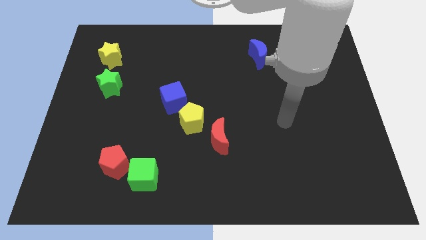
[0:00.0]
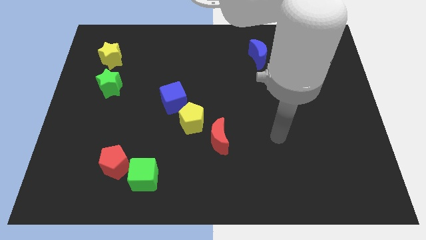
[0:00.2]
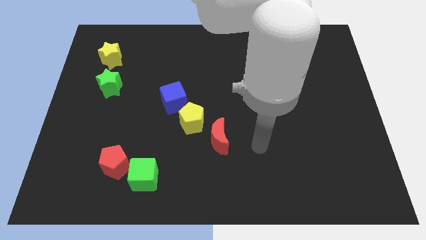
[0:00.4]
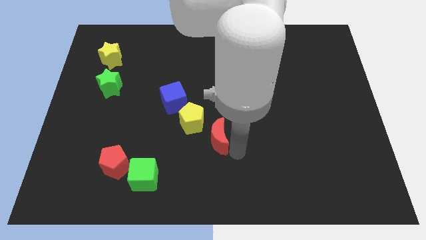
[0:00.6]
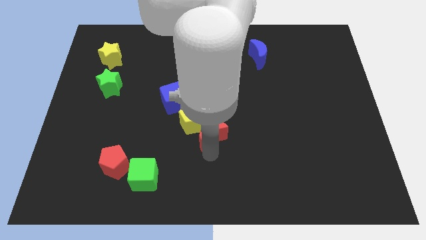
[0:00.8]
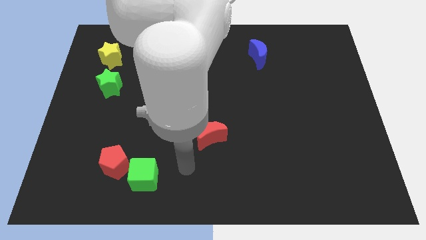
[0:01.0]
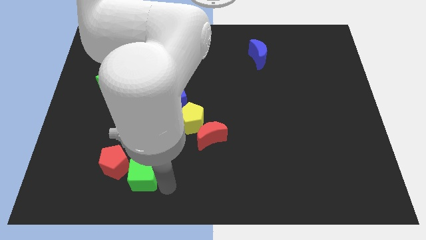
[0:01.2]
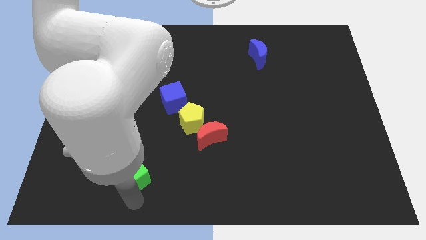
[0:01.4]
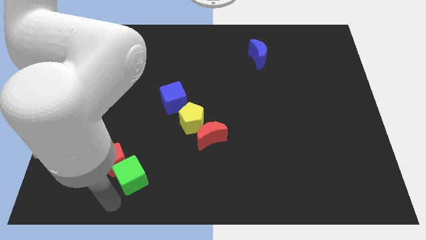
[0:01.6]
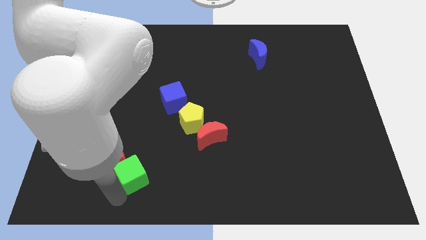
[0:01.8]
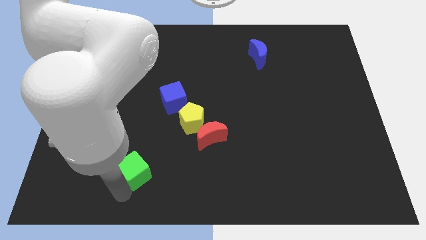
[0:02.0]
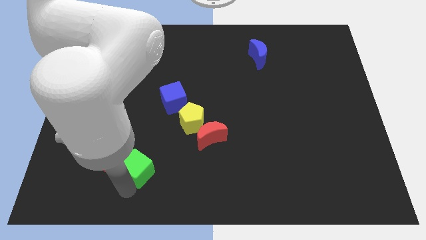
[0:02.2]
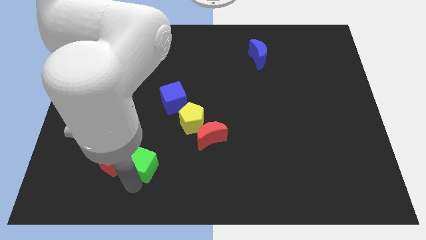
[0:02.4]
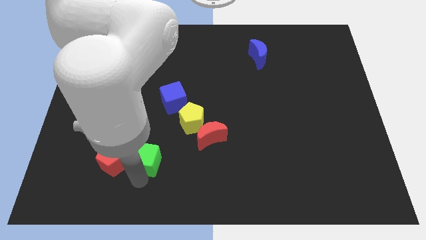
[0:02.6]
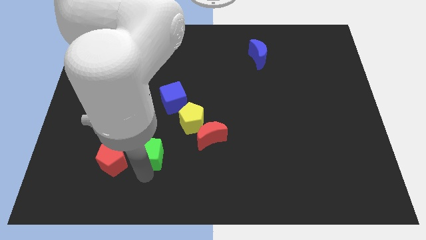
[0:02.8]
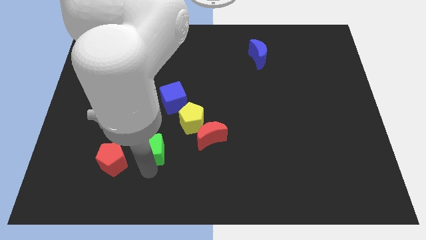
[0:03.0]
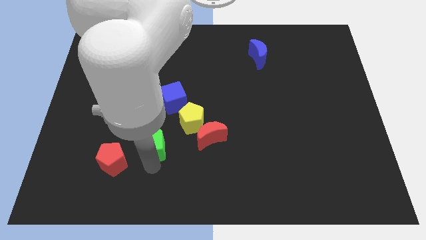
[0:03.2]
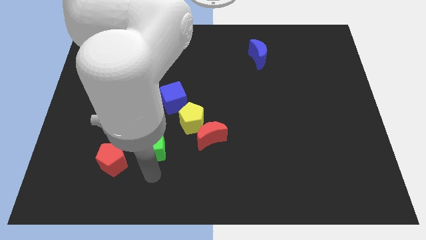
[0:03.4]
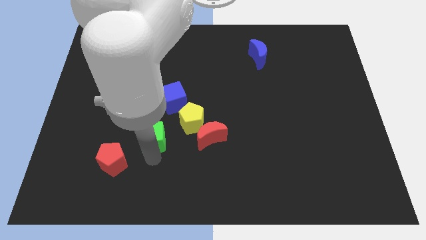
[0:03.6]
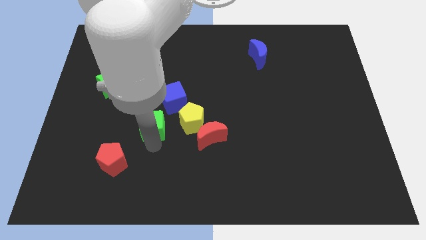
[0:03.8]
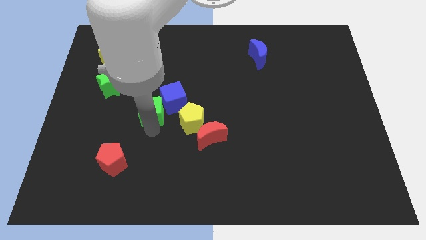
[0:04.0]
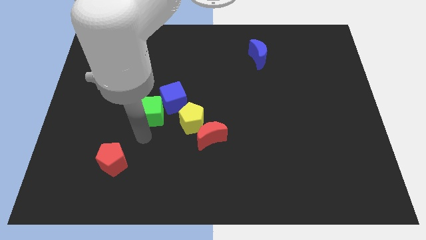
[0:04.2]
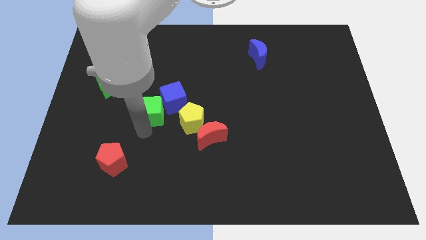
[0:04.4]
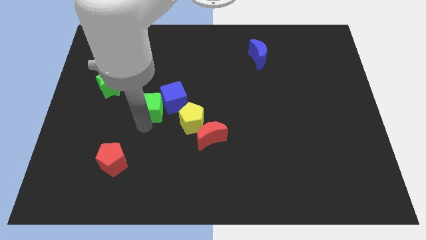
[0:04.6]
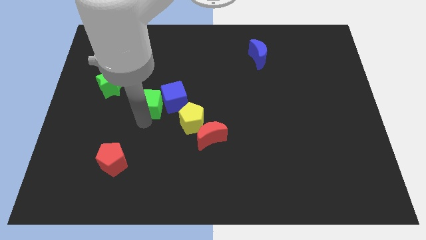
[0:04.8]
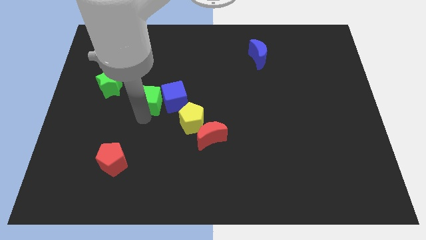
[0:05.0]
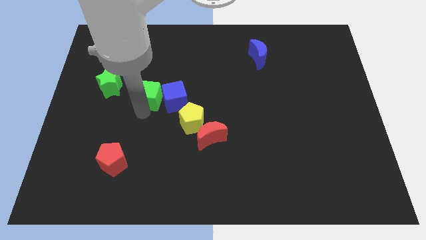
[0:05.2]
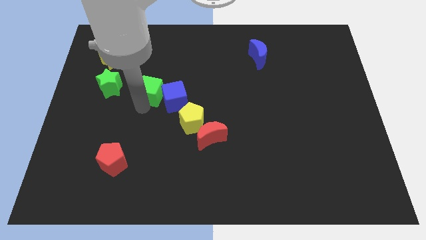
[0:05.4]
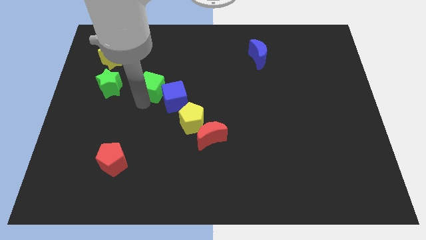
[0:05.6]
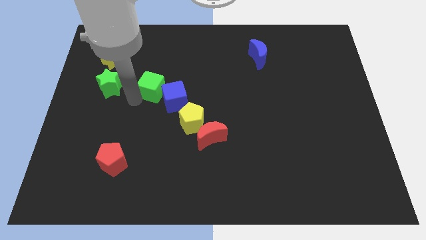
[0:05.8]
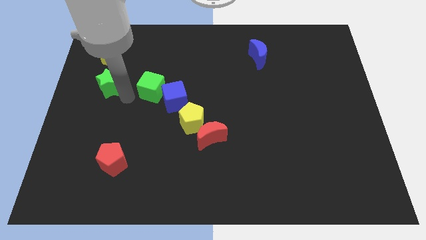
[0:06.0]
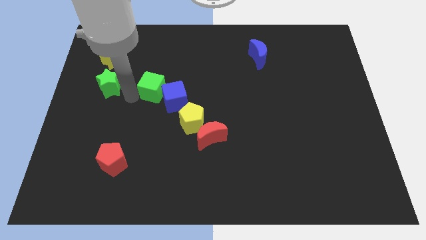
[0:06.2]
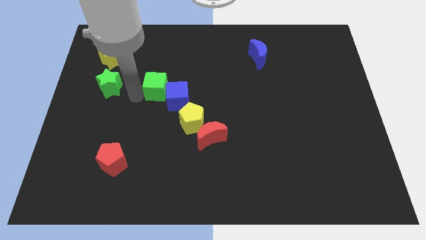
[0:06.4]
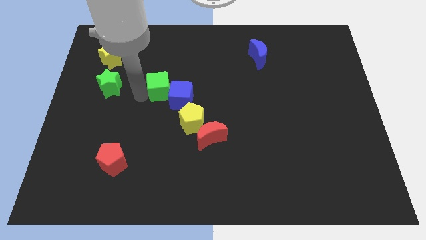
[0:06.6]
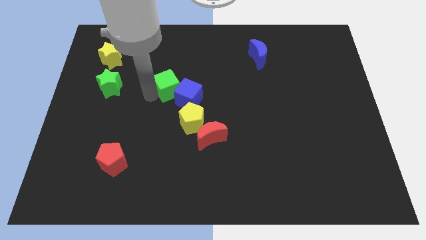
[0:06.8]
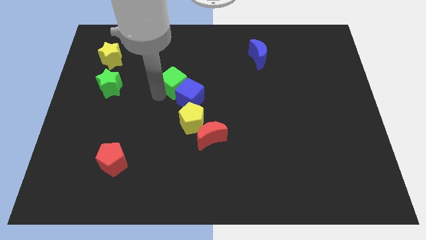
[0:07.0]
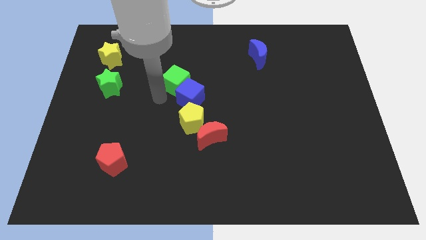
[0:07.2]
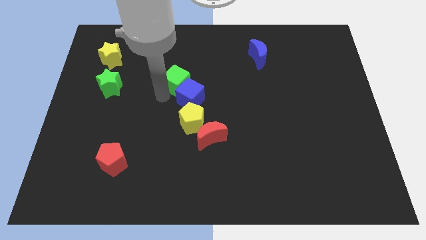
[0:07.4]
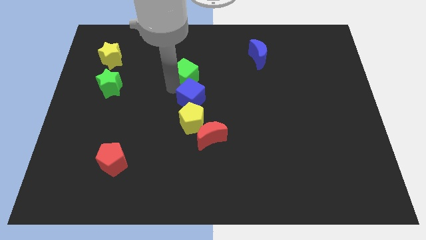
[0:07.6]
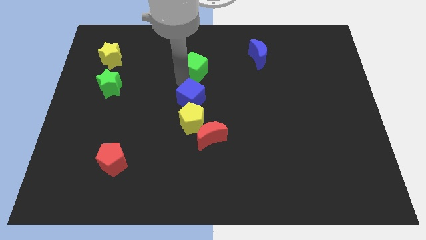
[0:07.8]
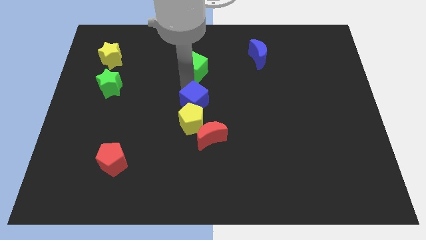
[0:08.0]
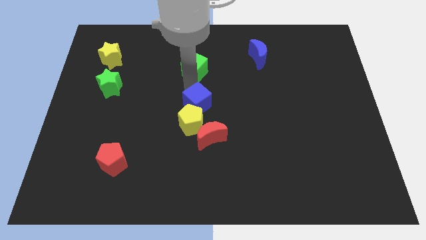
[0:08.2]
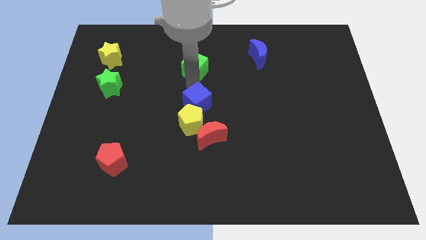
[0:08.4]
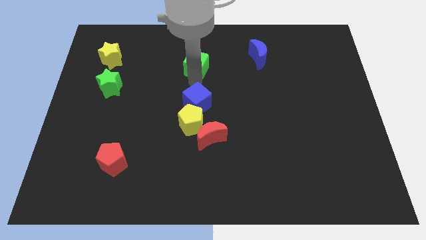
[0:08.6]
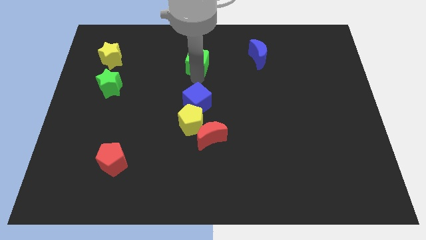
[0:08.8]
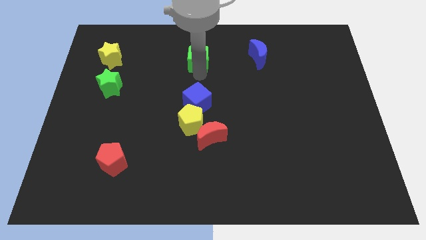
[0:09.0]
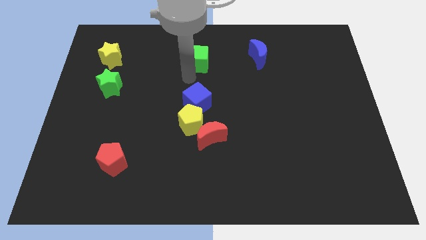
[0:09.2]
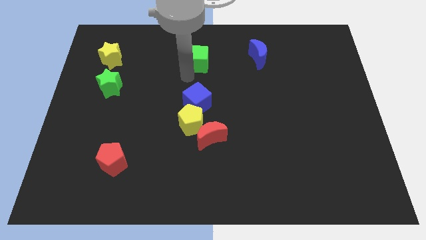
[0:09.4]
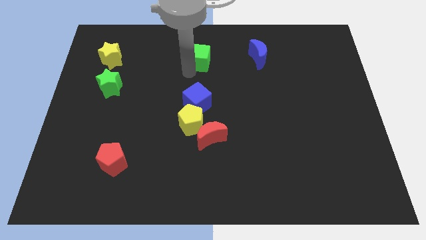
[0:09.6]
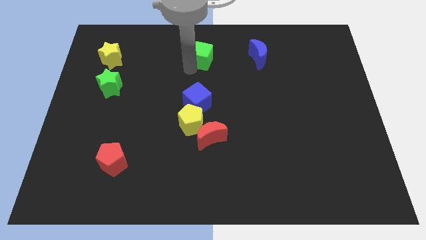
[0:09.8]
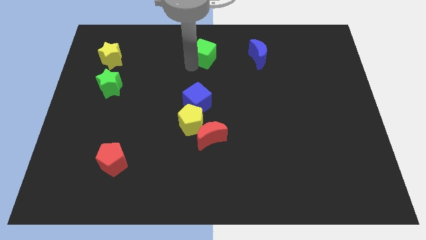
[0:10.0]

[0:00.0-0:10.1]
put the green cube to the top
